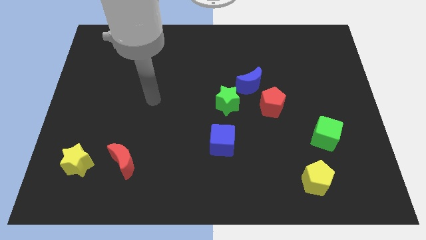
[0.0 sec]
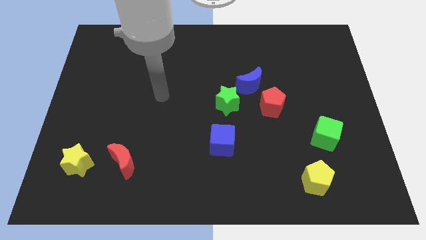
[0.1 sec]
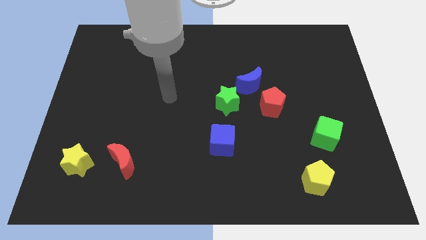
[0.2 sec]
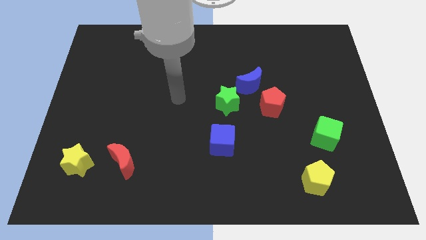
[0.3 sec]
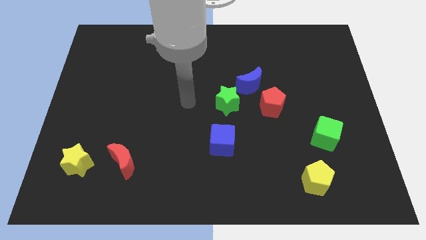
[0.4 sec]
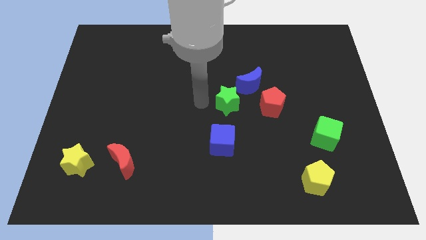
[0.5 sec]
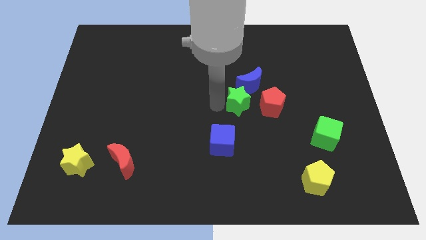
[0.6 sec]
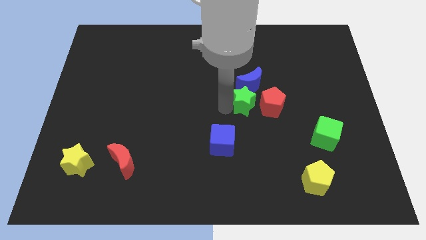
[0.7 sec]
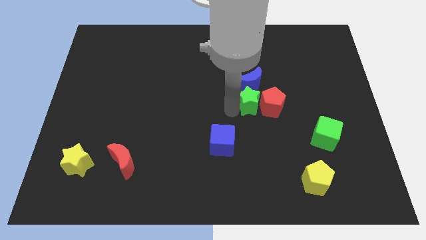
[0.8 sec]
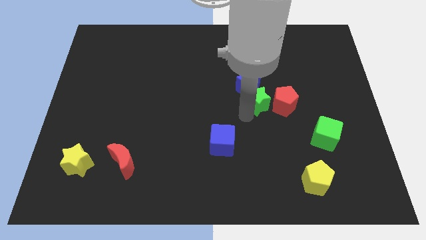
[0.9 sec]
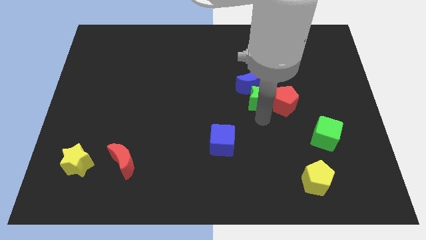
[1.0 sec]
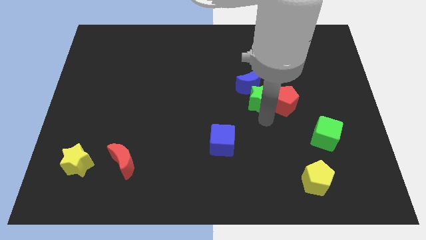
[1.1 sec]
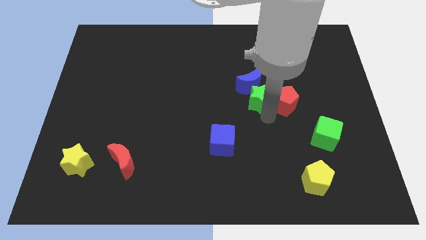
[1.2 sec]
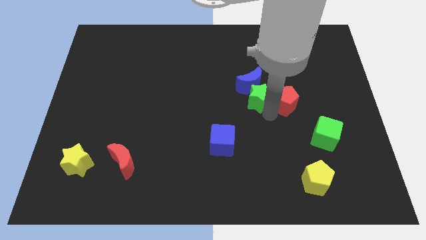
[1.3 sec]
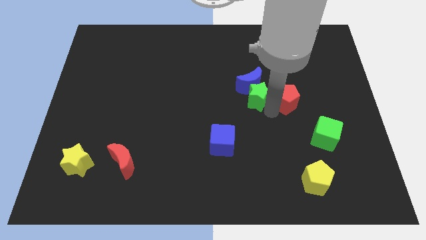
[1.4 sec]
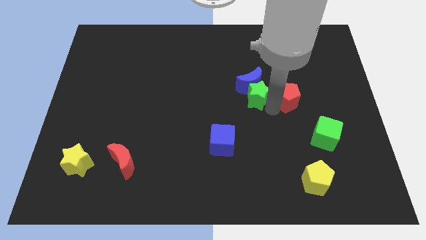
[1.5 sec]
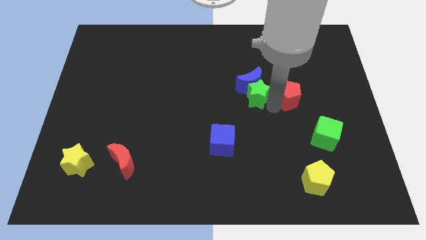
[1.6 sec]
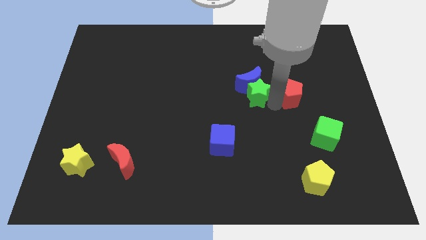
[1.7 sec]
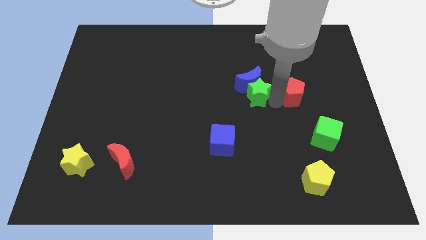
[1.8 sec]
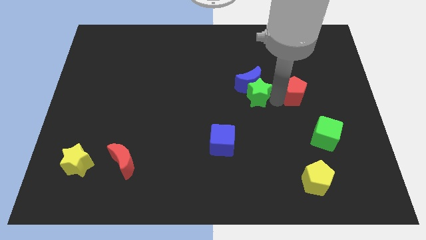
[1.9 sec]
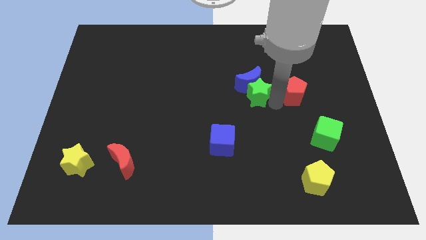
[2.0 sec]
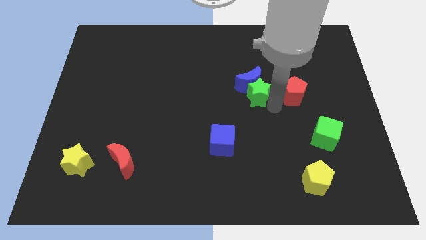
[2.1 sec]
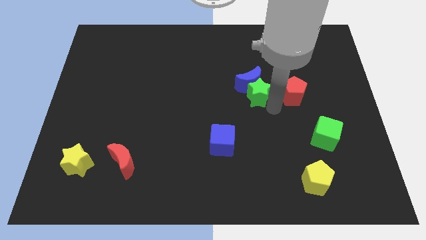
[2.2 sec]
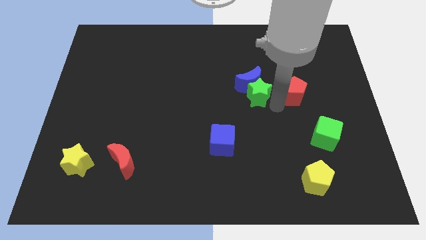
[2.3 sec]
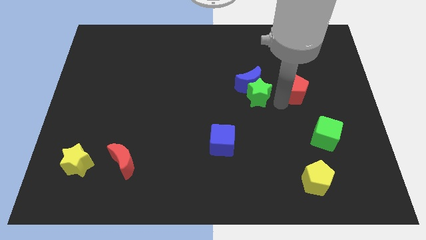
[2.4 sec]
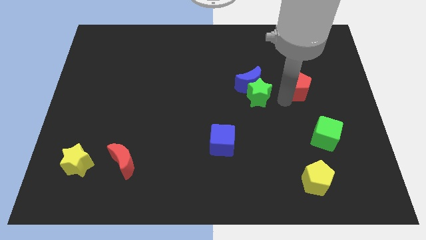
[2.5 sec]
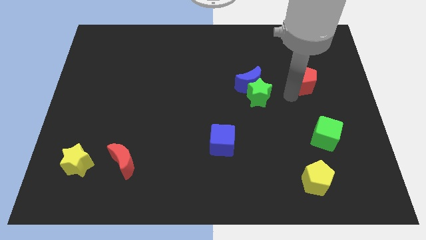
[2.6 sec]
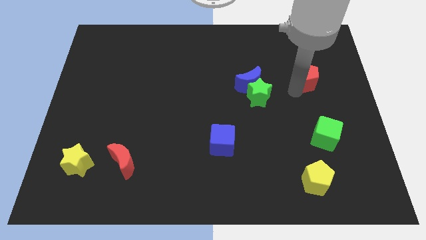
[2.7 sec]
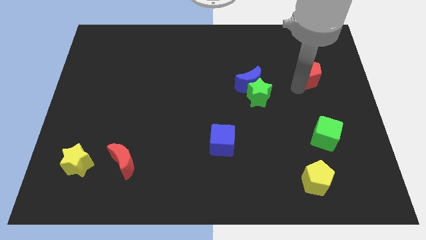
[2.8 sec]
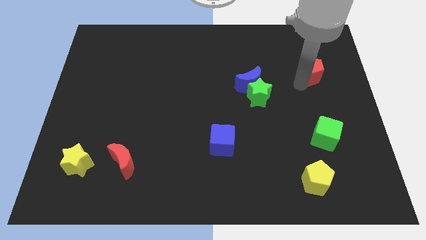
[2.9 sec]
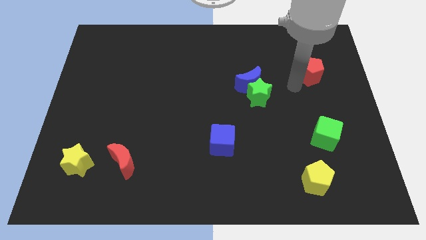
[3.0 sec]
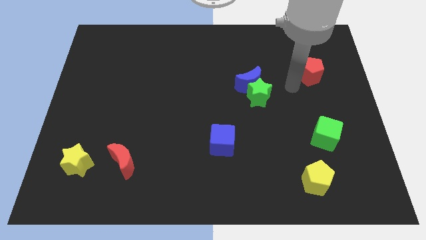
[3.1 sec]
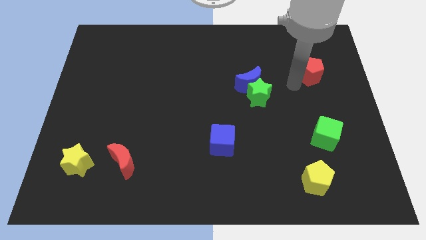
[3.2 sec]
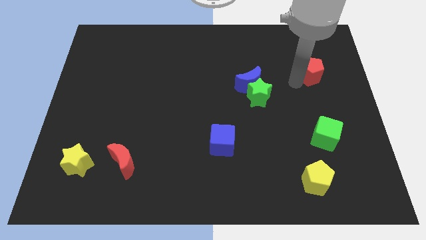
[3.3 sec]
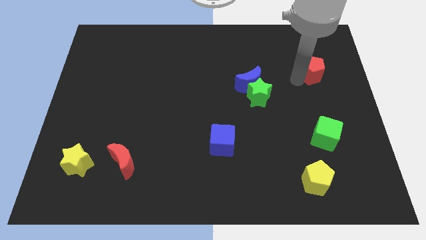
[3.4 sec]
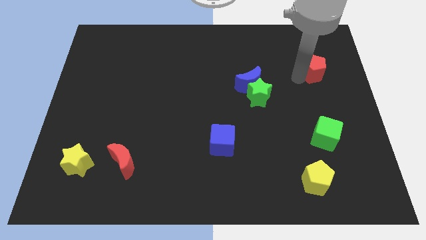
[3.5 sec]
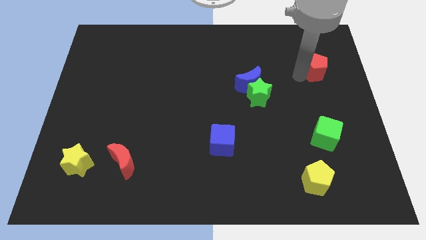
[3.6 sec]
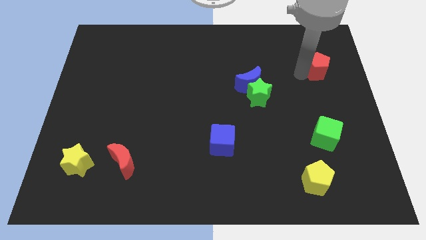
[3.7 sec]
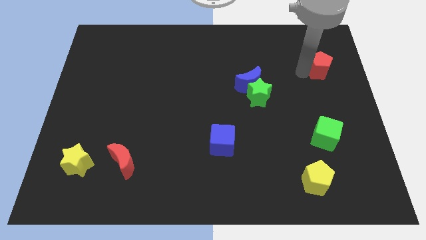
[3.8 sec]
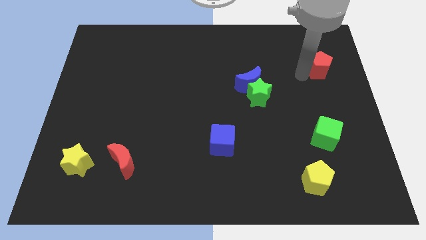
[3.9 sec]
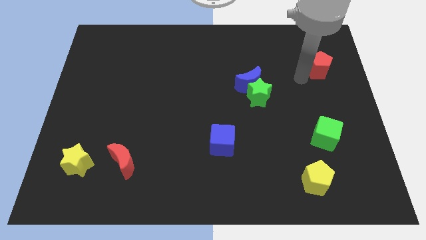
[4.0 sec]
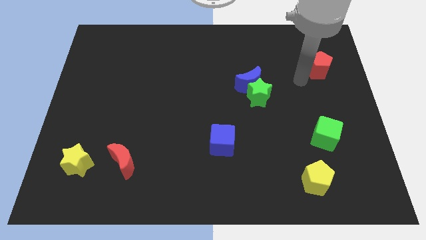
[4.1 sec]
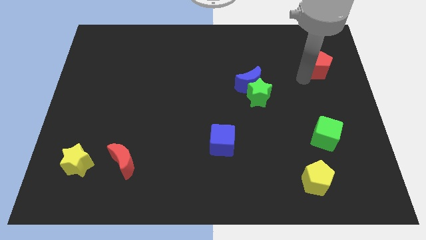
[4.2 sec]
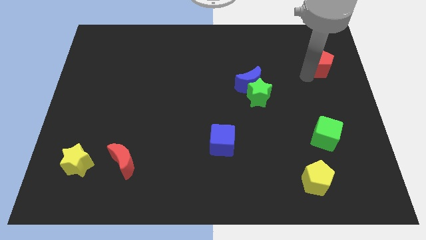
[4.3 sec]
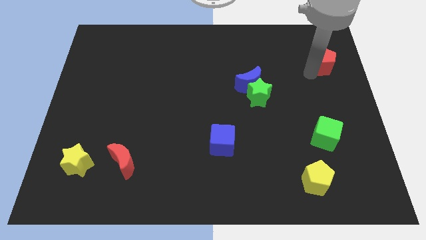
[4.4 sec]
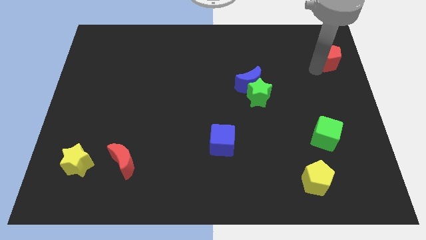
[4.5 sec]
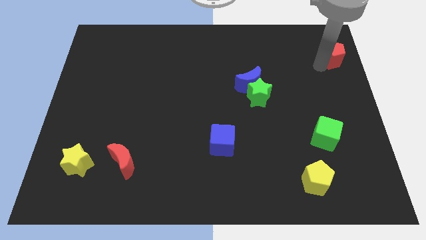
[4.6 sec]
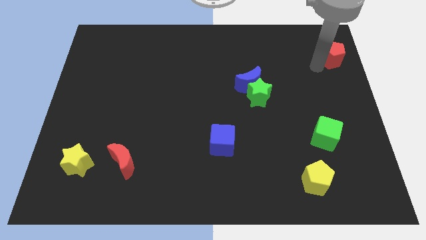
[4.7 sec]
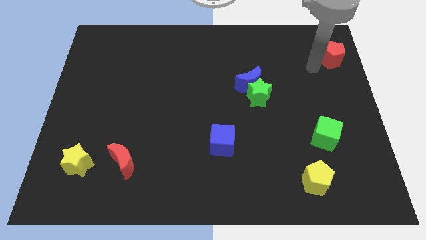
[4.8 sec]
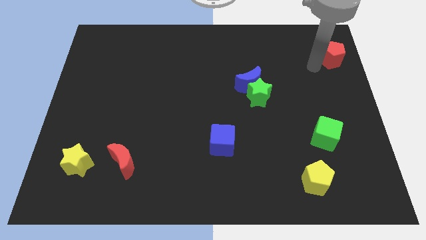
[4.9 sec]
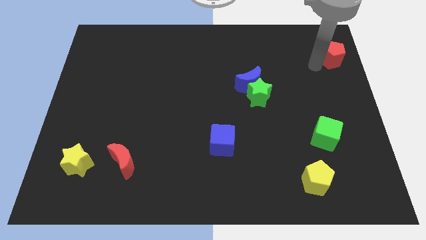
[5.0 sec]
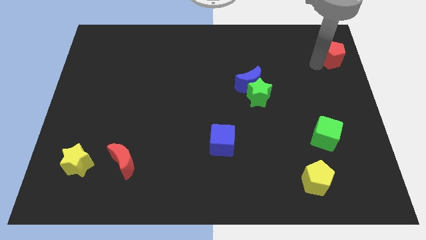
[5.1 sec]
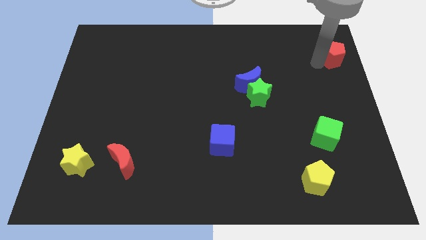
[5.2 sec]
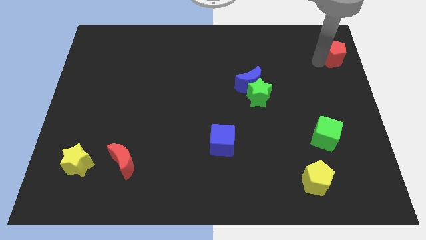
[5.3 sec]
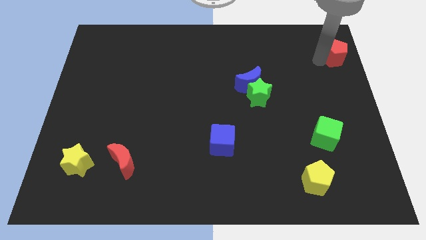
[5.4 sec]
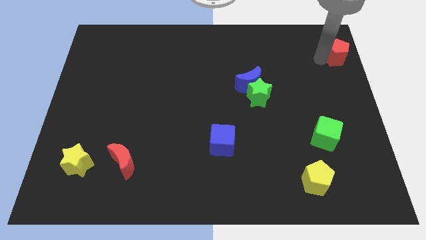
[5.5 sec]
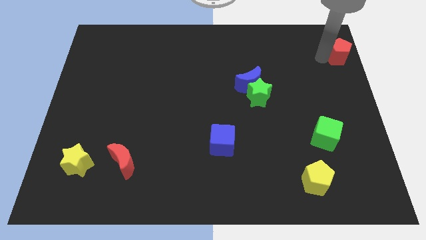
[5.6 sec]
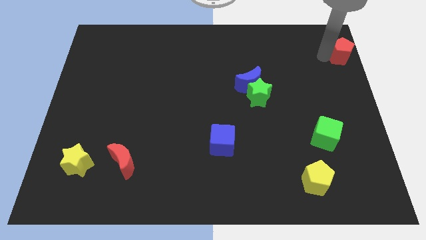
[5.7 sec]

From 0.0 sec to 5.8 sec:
move the red pentagon to the top right of the board
